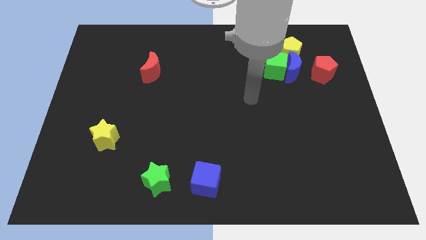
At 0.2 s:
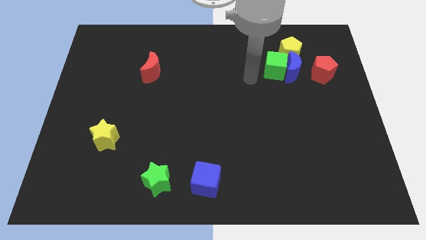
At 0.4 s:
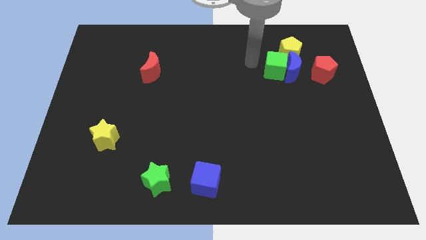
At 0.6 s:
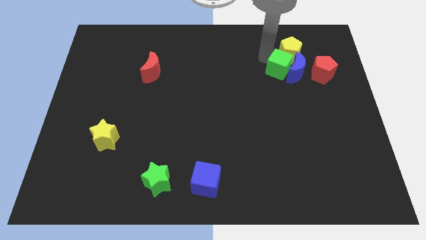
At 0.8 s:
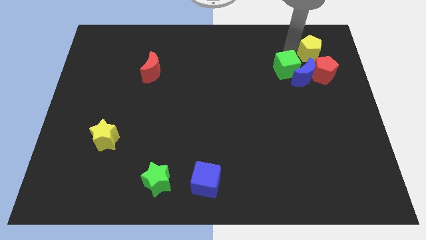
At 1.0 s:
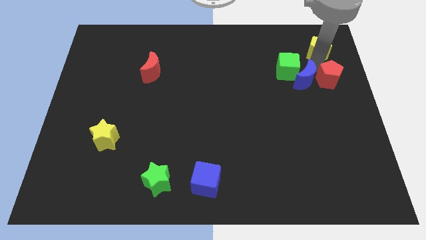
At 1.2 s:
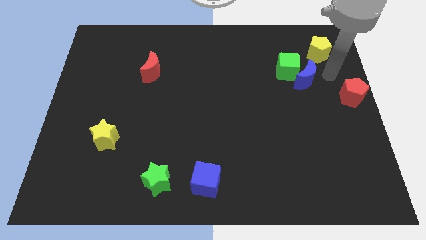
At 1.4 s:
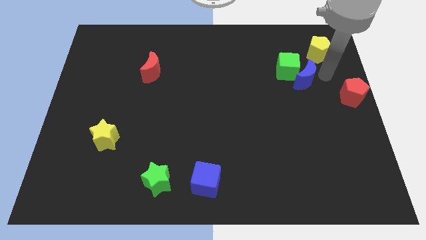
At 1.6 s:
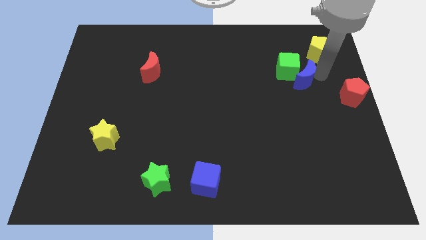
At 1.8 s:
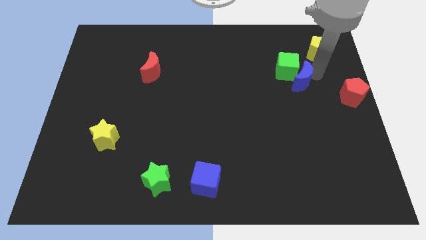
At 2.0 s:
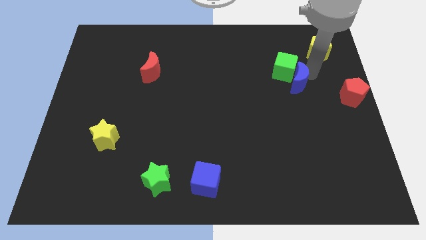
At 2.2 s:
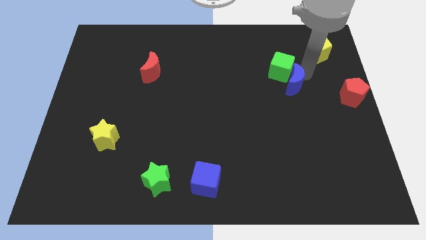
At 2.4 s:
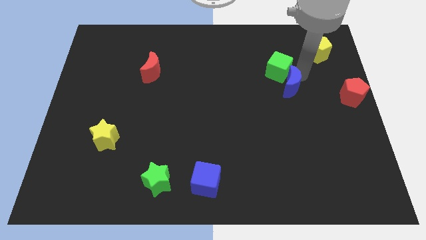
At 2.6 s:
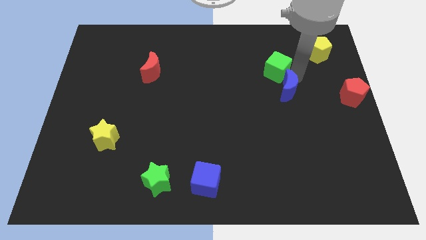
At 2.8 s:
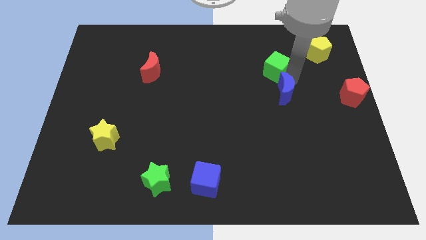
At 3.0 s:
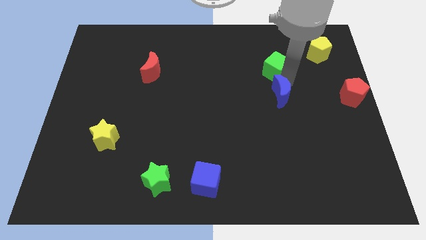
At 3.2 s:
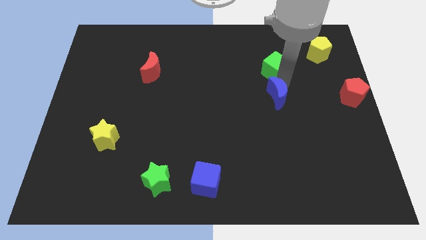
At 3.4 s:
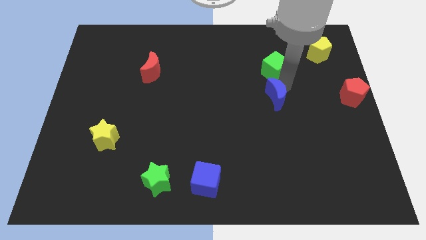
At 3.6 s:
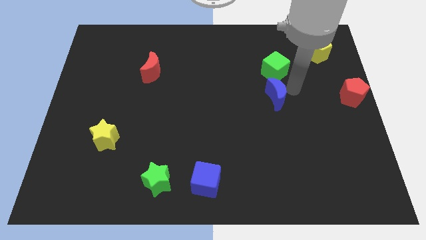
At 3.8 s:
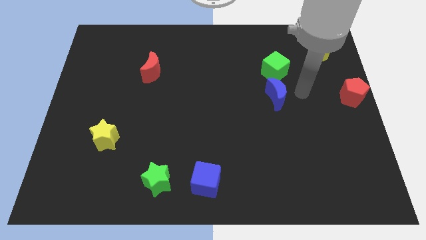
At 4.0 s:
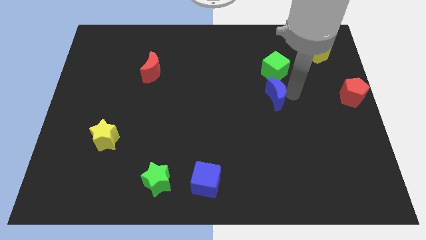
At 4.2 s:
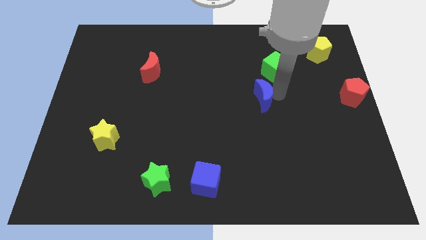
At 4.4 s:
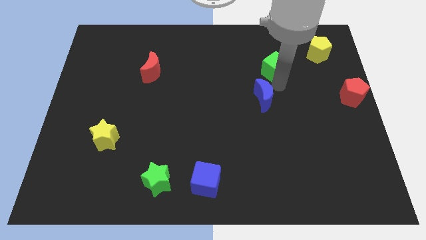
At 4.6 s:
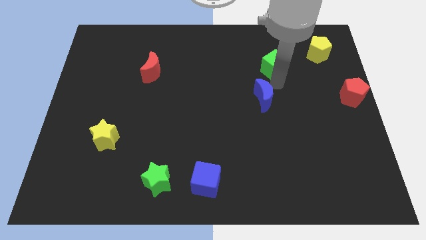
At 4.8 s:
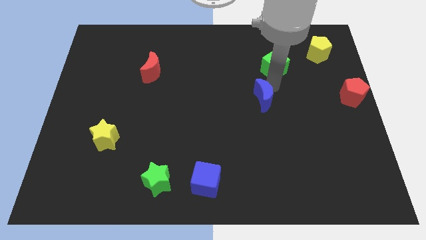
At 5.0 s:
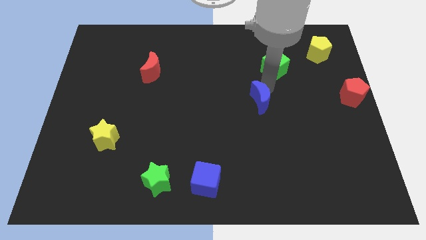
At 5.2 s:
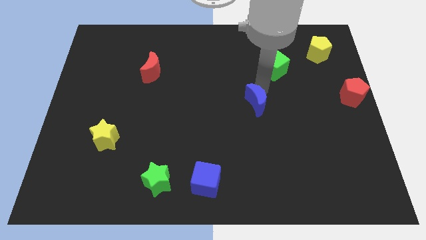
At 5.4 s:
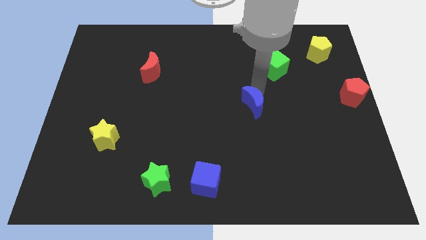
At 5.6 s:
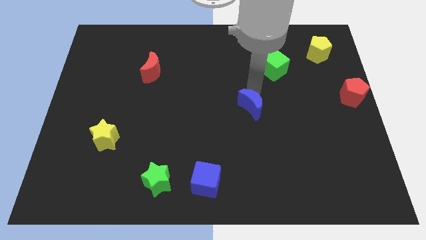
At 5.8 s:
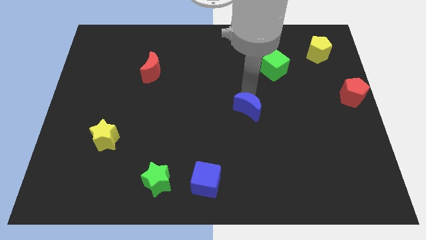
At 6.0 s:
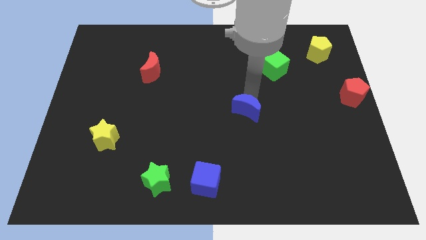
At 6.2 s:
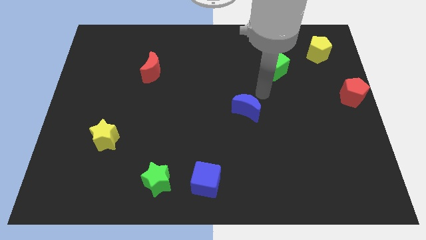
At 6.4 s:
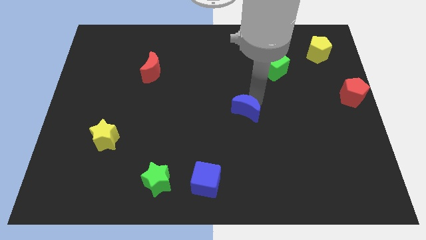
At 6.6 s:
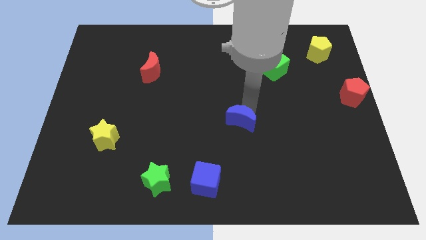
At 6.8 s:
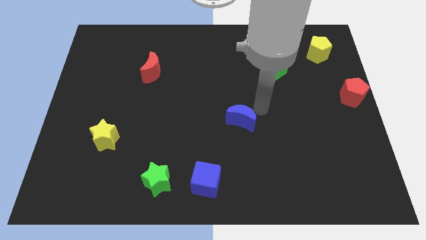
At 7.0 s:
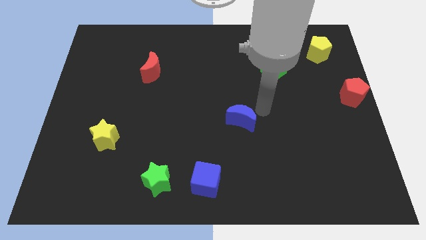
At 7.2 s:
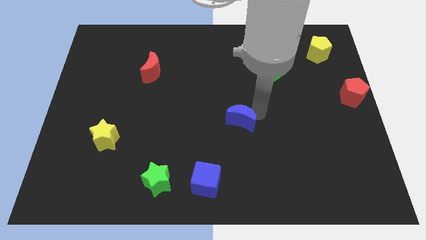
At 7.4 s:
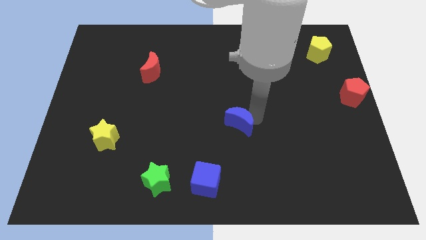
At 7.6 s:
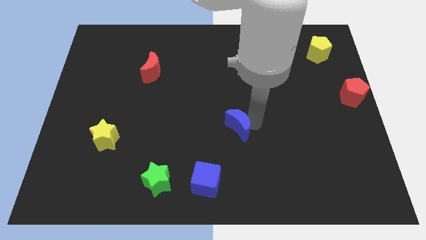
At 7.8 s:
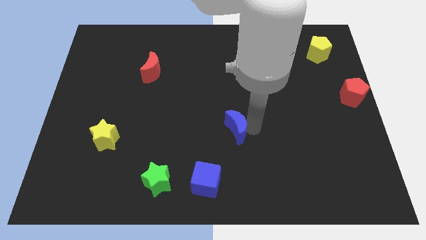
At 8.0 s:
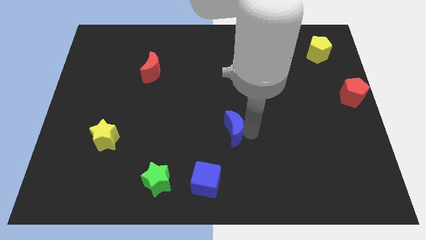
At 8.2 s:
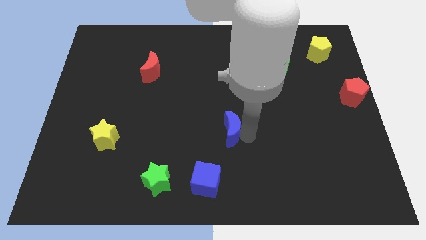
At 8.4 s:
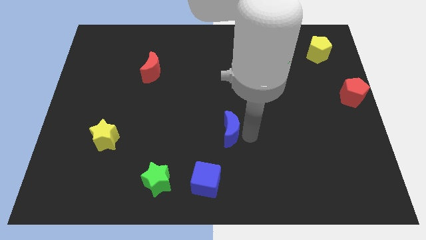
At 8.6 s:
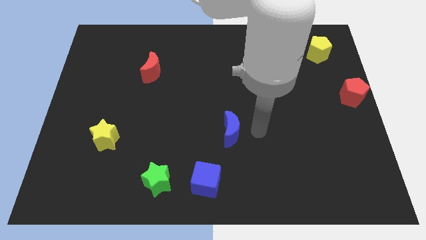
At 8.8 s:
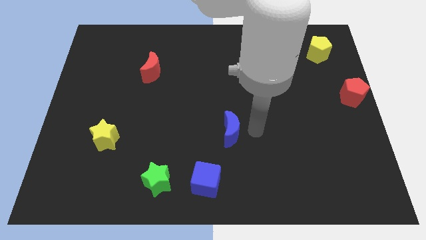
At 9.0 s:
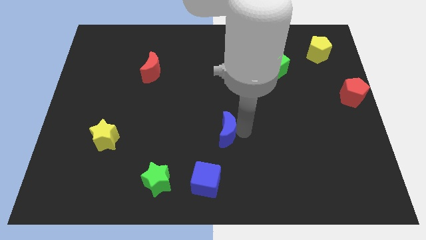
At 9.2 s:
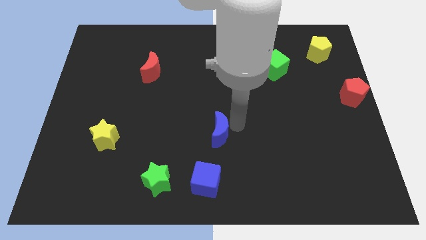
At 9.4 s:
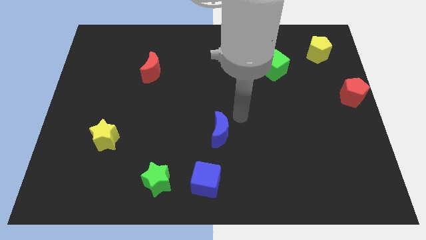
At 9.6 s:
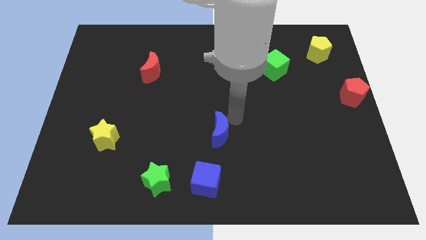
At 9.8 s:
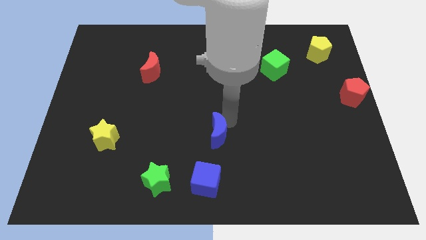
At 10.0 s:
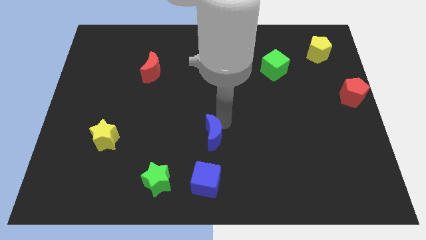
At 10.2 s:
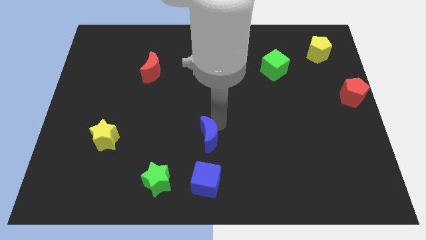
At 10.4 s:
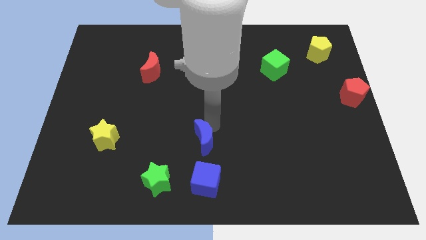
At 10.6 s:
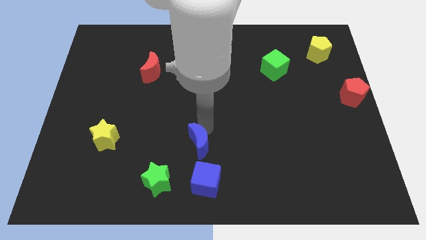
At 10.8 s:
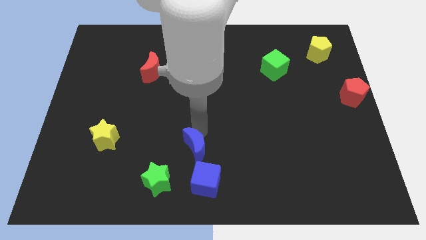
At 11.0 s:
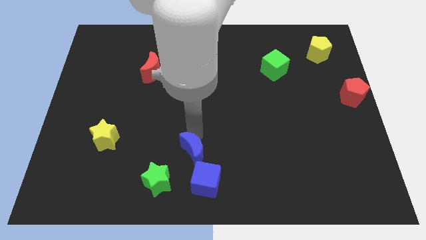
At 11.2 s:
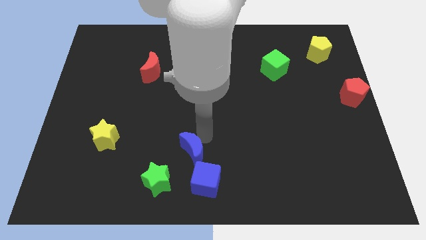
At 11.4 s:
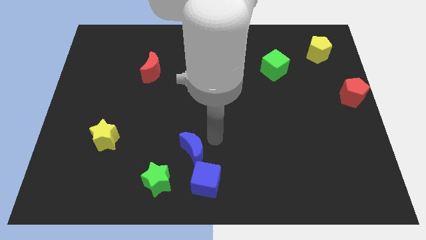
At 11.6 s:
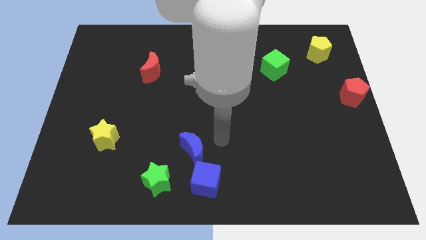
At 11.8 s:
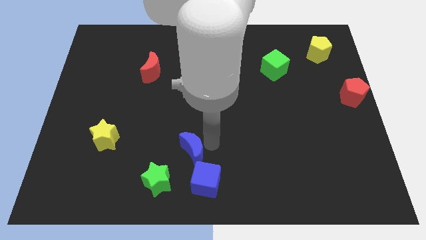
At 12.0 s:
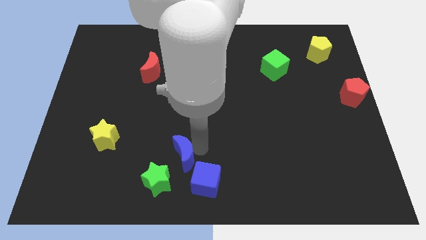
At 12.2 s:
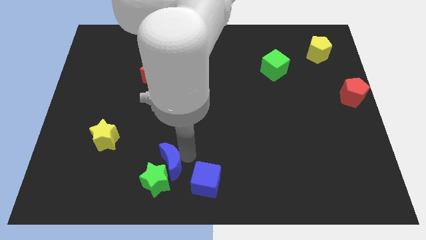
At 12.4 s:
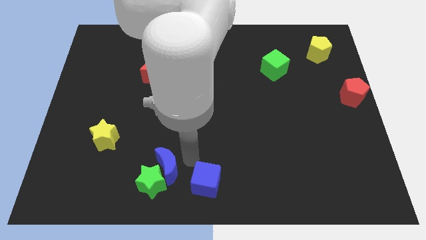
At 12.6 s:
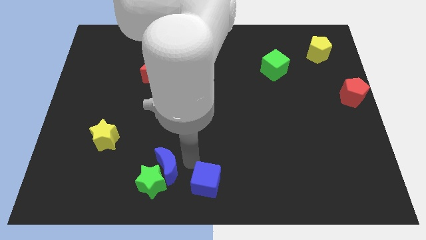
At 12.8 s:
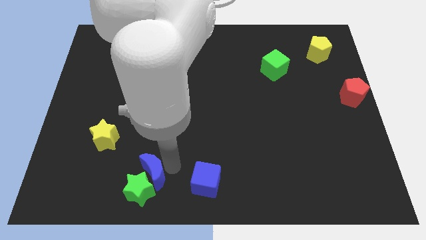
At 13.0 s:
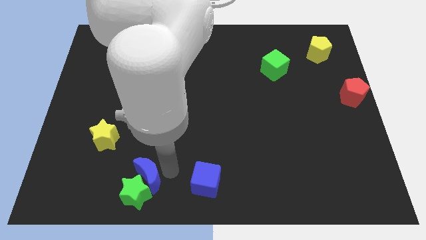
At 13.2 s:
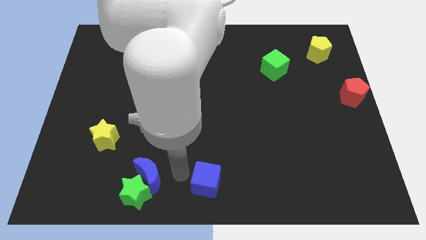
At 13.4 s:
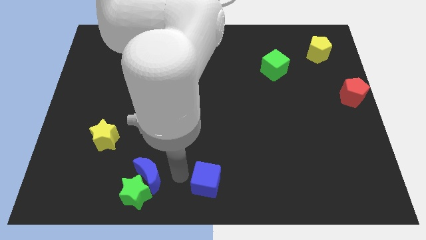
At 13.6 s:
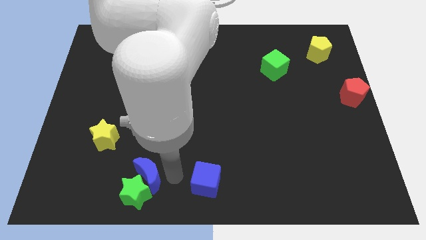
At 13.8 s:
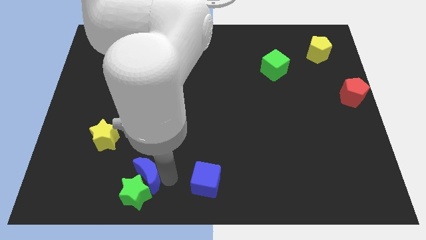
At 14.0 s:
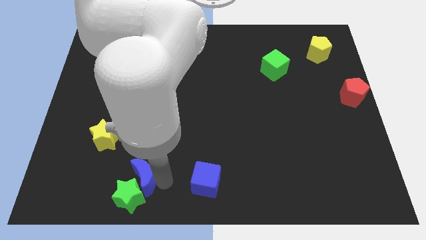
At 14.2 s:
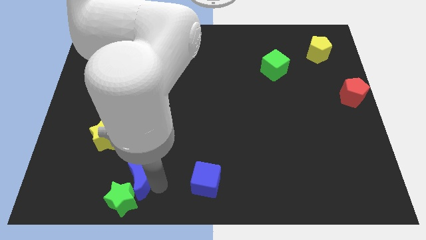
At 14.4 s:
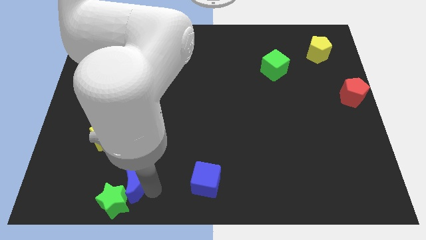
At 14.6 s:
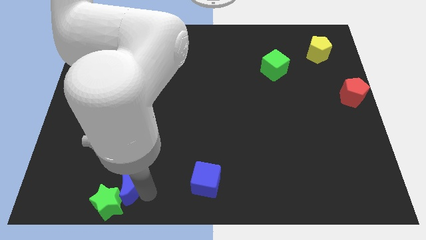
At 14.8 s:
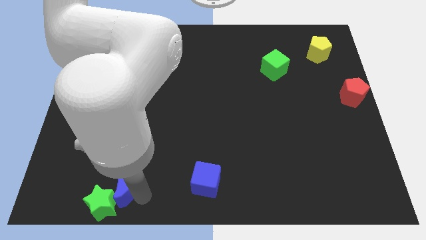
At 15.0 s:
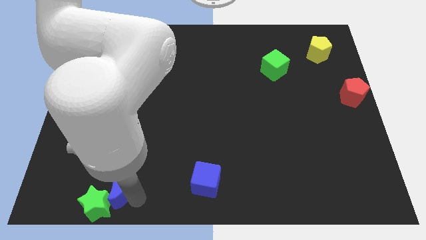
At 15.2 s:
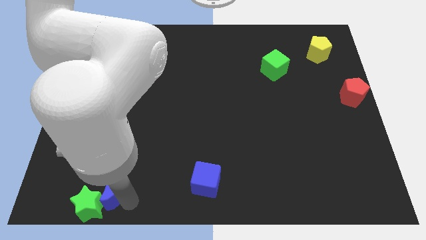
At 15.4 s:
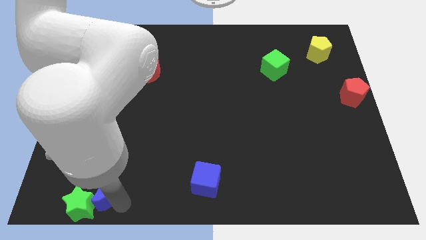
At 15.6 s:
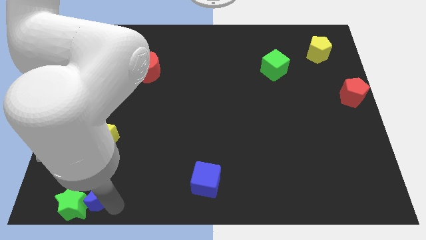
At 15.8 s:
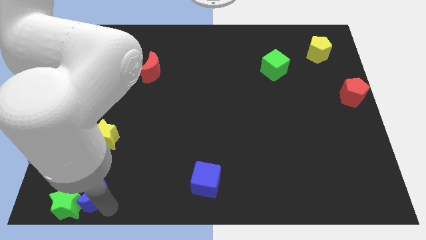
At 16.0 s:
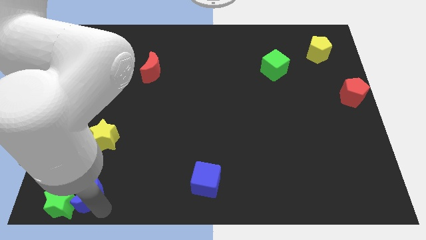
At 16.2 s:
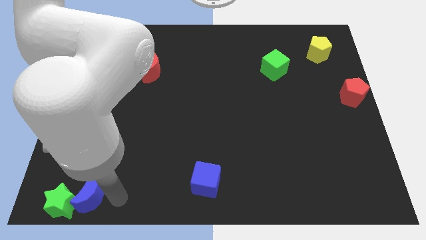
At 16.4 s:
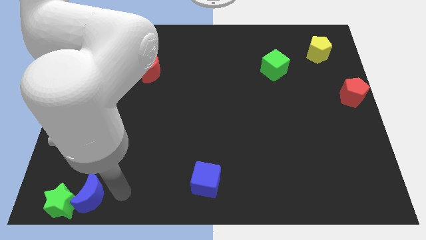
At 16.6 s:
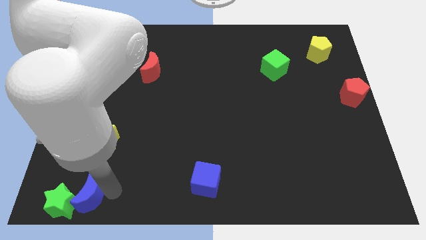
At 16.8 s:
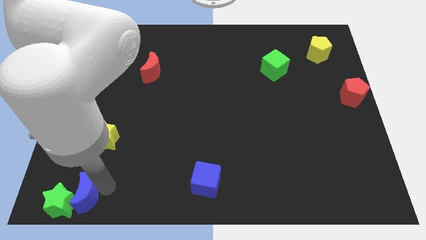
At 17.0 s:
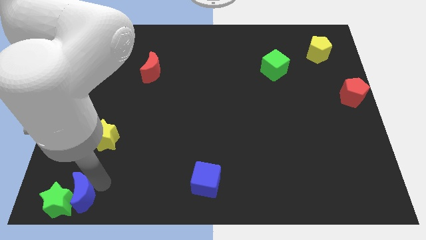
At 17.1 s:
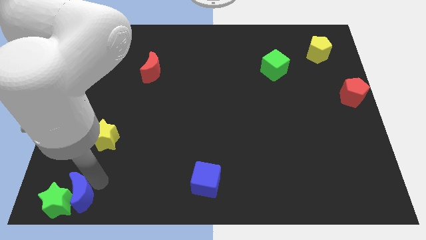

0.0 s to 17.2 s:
push the blue moon to the lower left corner
